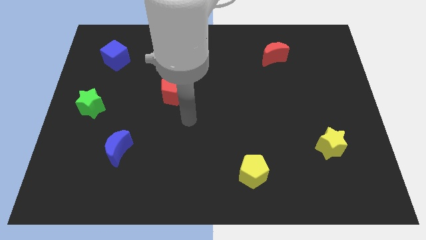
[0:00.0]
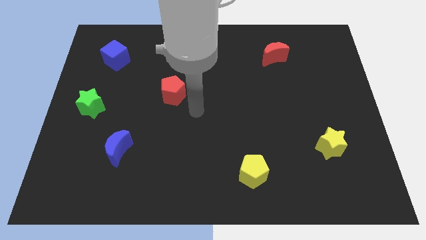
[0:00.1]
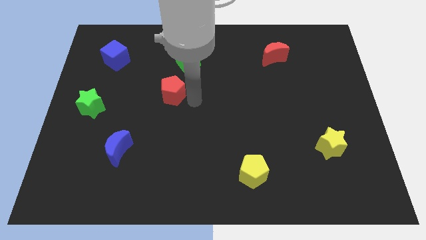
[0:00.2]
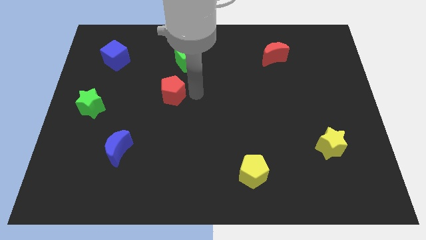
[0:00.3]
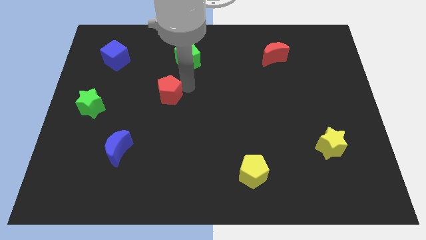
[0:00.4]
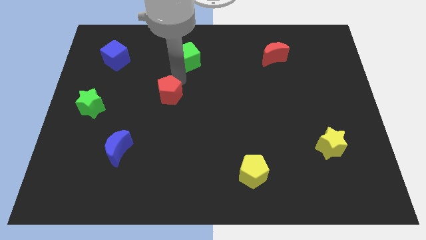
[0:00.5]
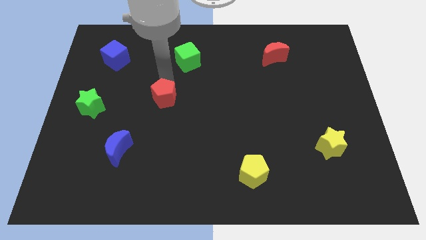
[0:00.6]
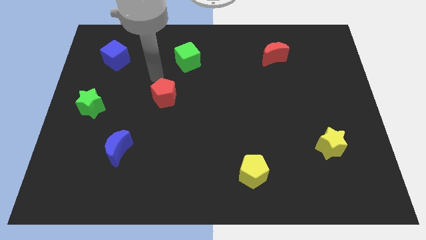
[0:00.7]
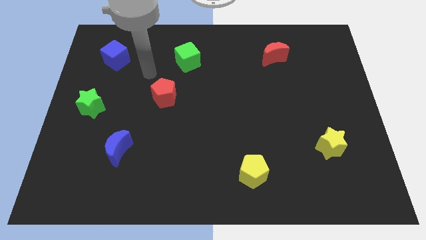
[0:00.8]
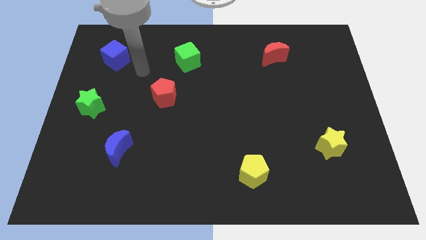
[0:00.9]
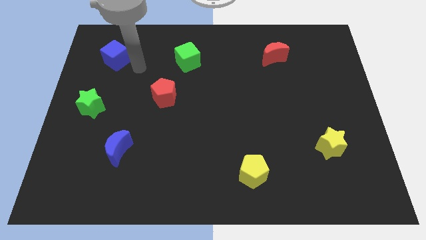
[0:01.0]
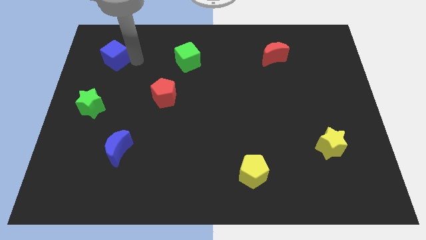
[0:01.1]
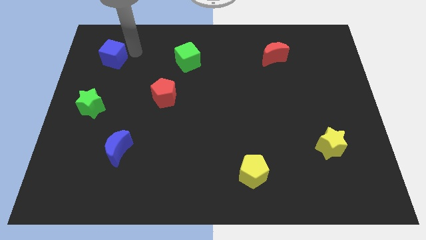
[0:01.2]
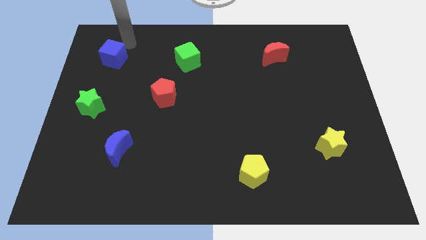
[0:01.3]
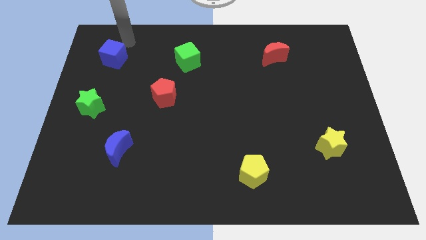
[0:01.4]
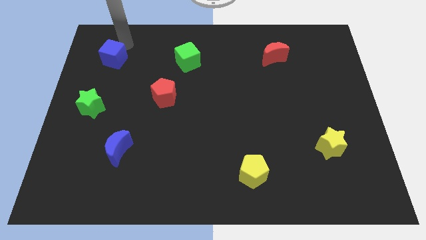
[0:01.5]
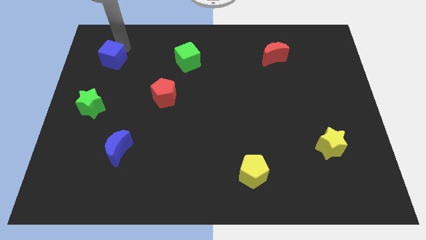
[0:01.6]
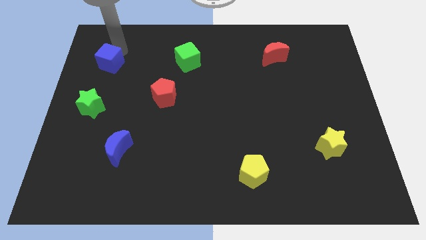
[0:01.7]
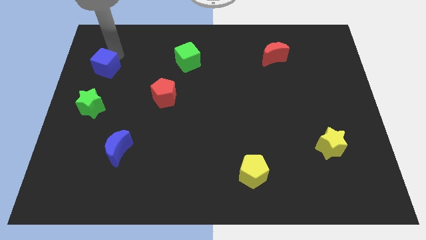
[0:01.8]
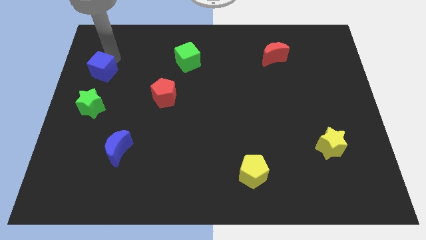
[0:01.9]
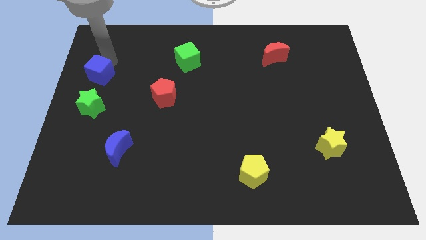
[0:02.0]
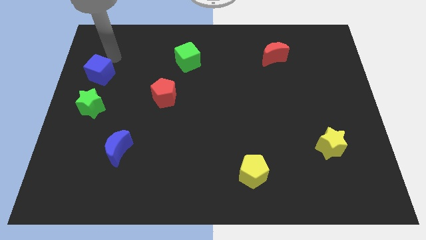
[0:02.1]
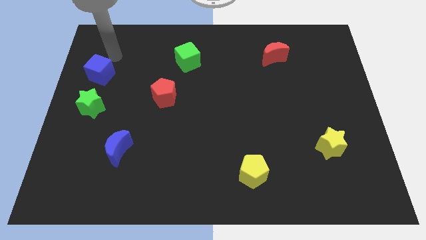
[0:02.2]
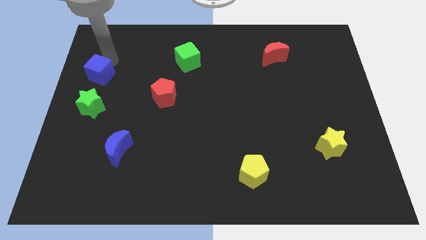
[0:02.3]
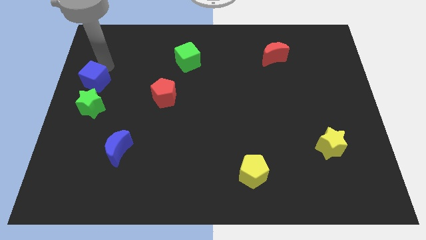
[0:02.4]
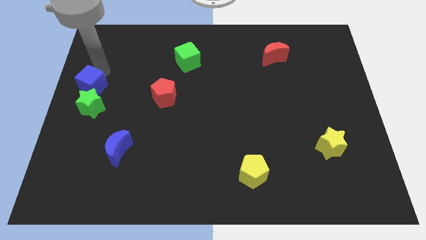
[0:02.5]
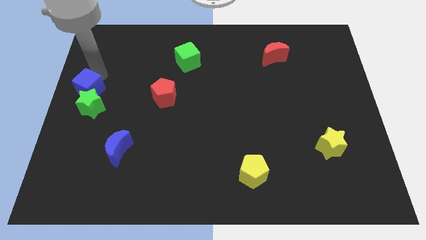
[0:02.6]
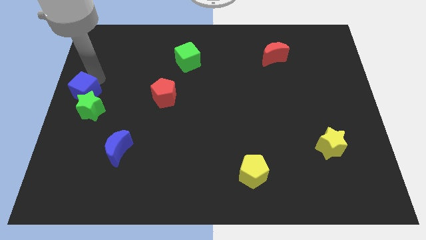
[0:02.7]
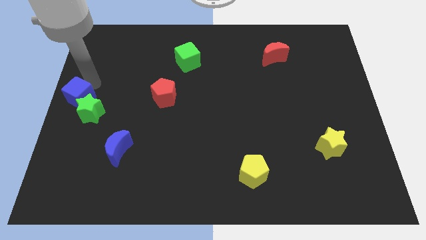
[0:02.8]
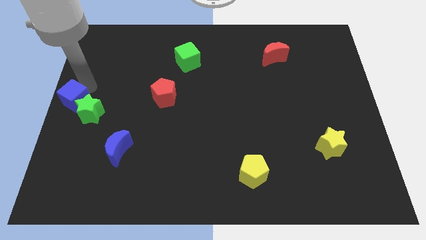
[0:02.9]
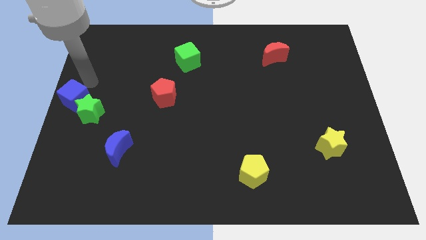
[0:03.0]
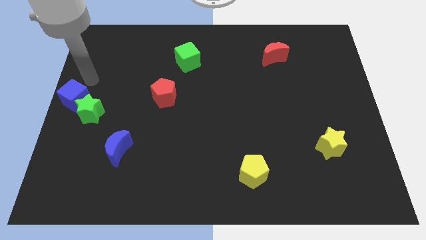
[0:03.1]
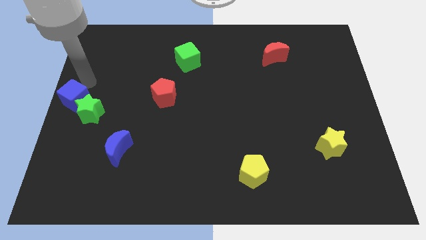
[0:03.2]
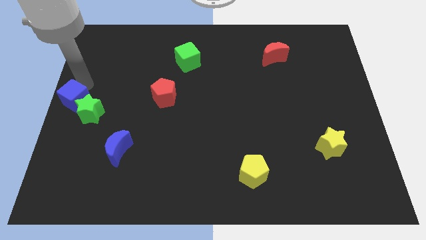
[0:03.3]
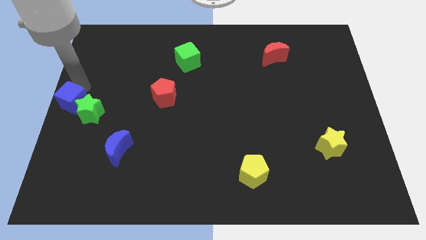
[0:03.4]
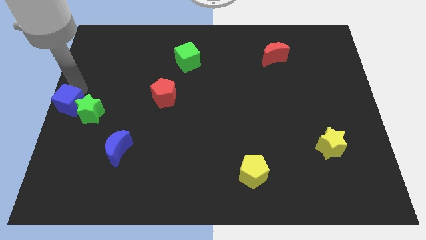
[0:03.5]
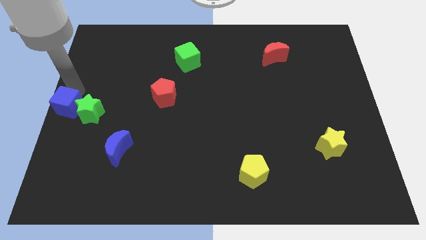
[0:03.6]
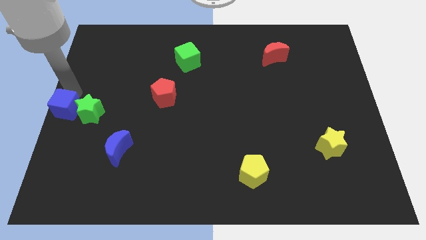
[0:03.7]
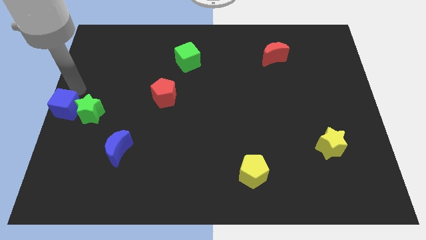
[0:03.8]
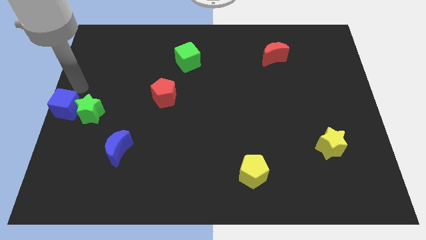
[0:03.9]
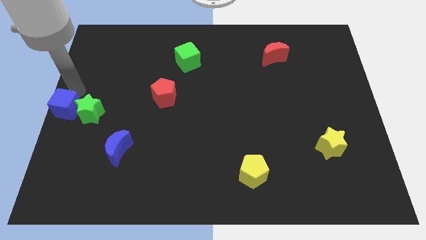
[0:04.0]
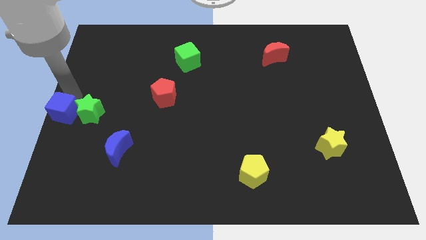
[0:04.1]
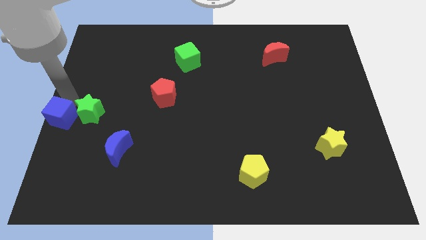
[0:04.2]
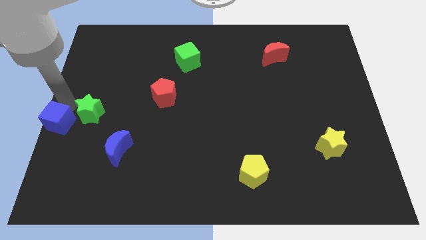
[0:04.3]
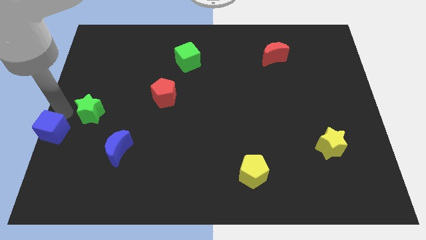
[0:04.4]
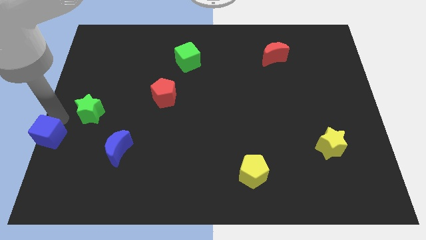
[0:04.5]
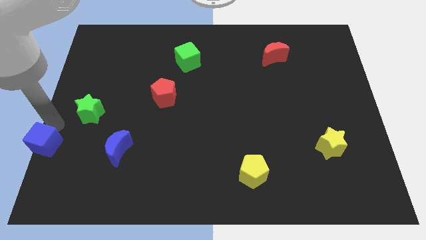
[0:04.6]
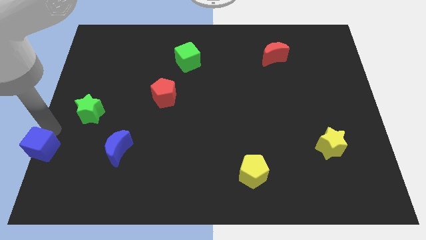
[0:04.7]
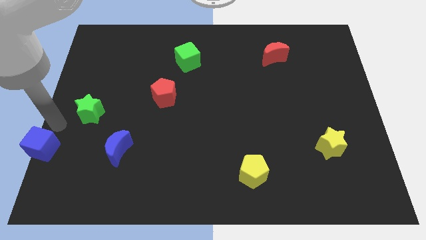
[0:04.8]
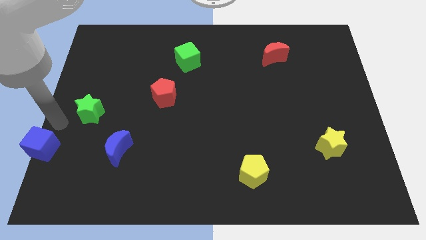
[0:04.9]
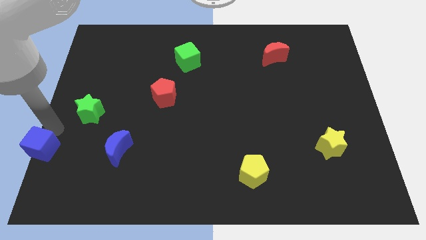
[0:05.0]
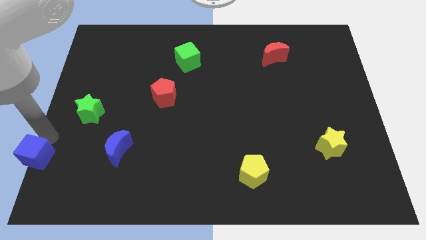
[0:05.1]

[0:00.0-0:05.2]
slide the blue cube to the bottom left corner
